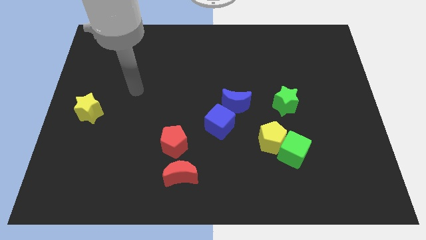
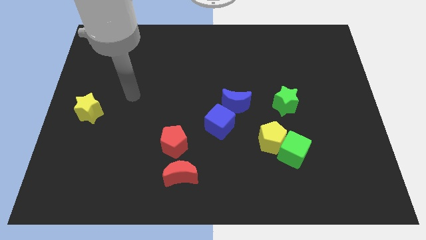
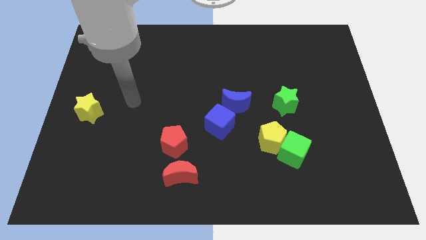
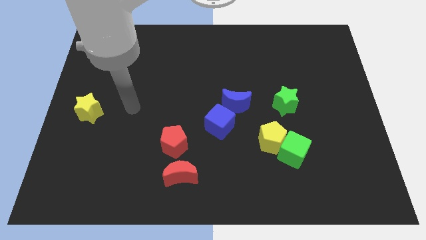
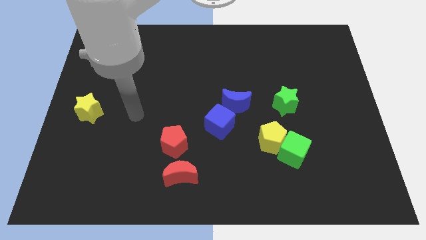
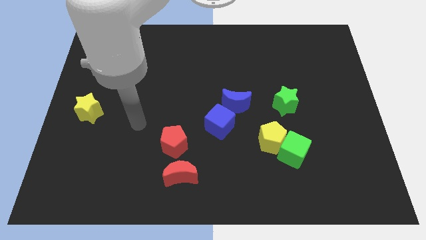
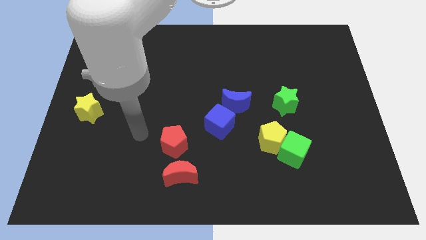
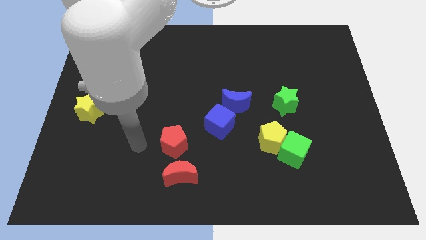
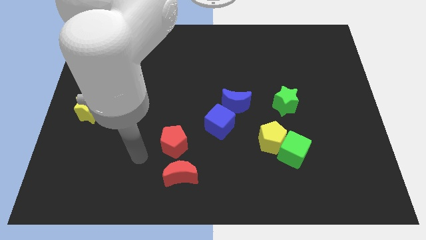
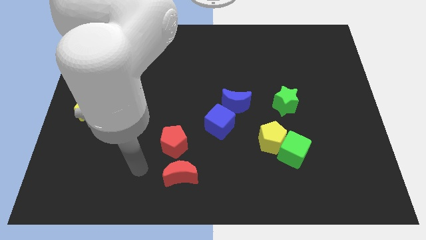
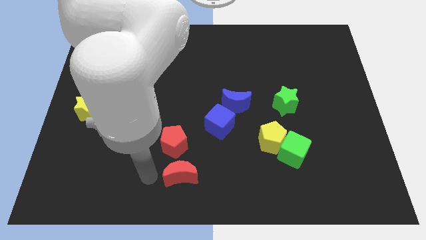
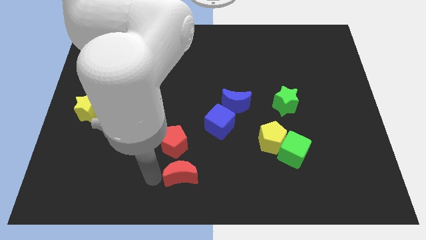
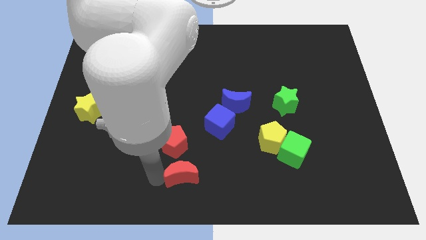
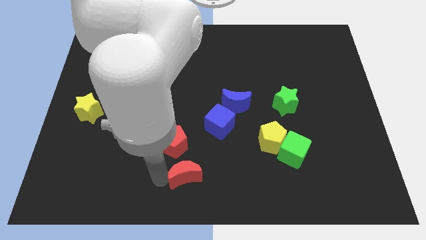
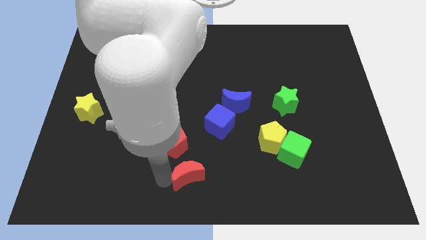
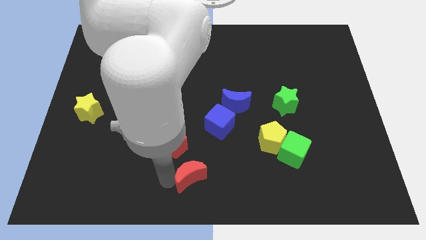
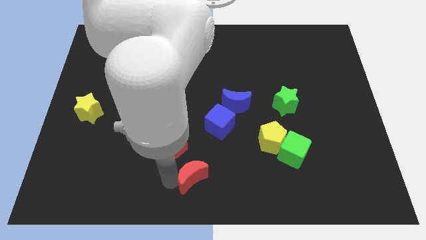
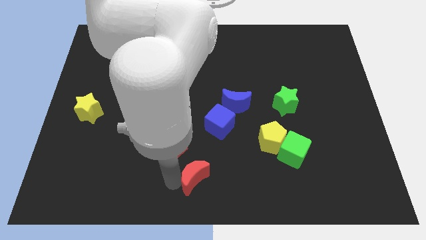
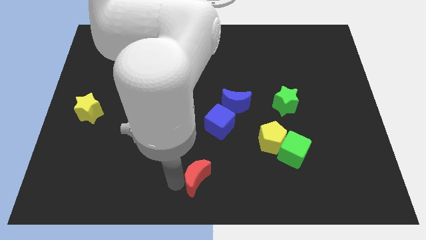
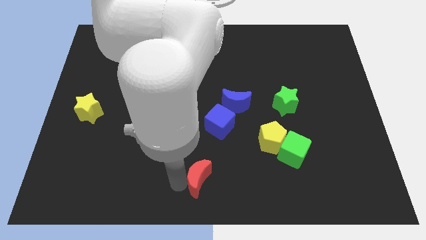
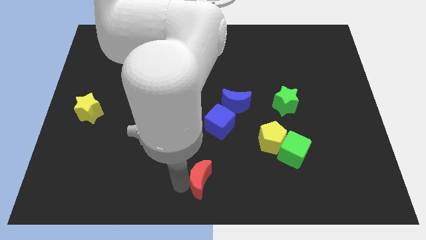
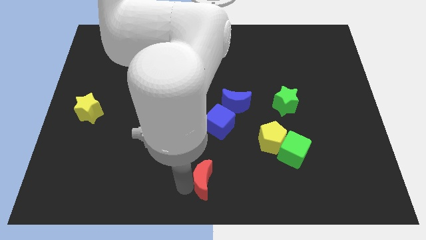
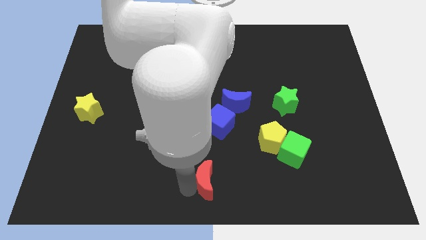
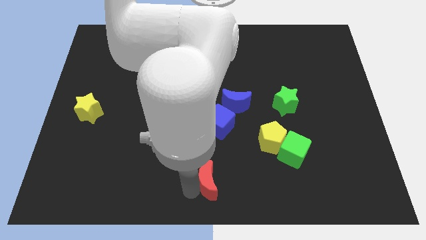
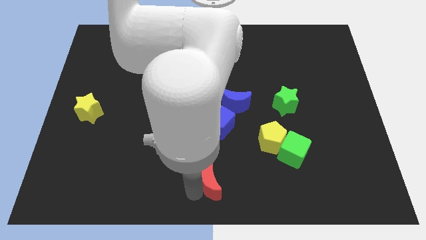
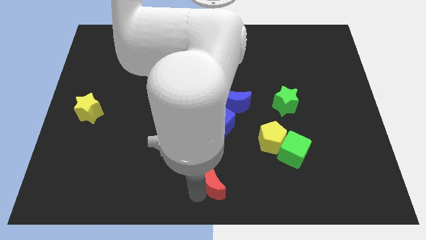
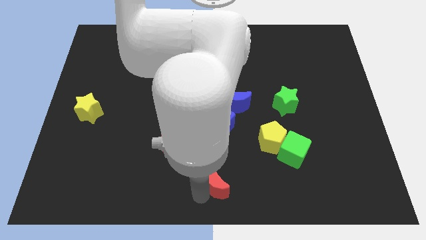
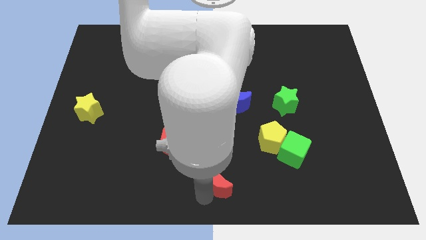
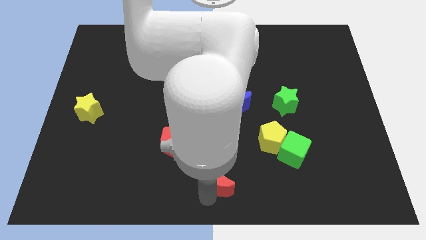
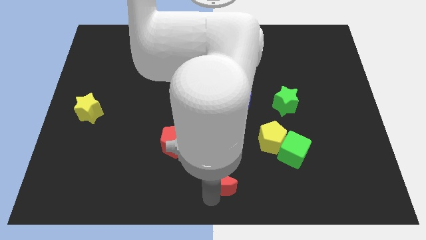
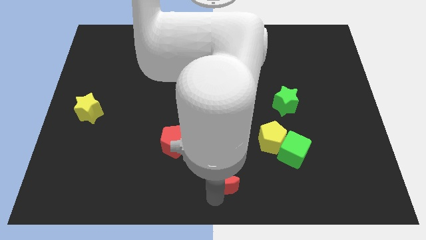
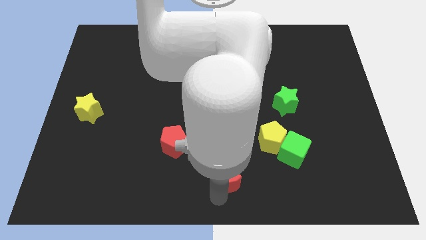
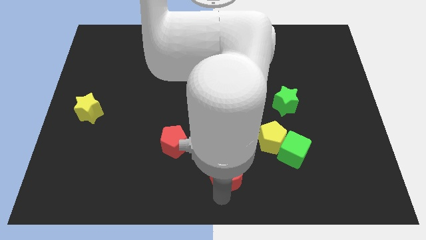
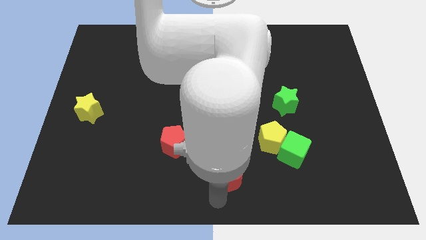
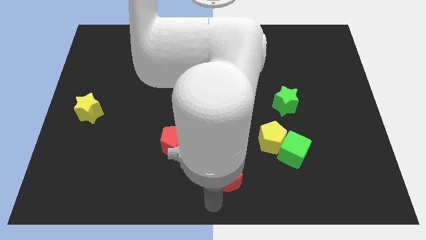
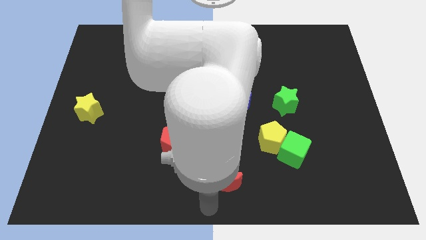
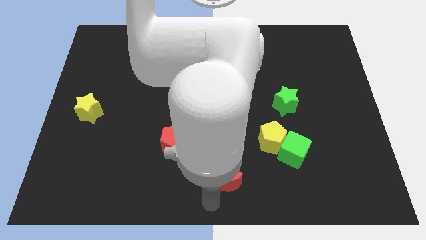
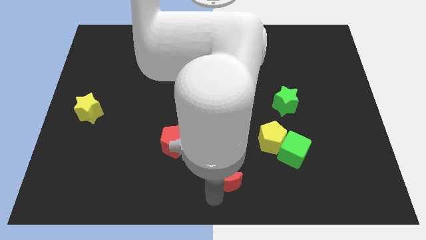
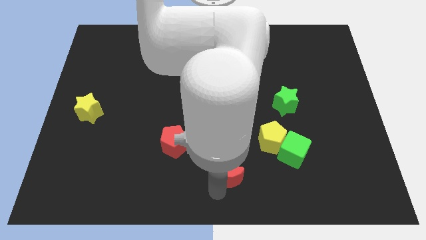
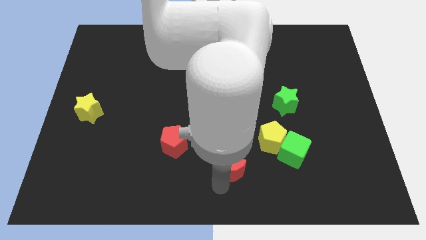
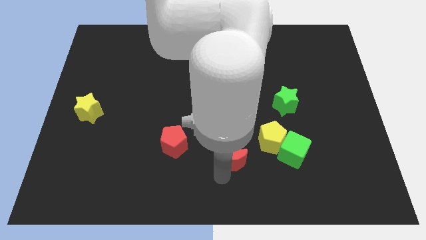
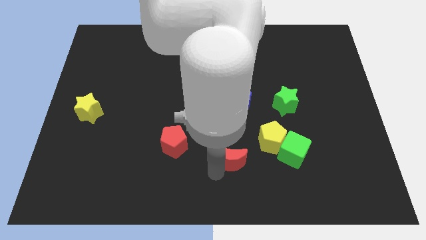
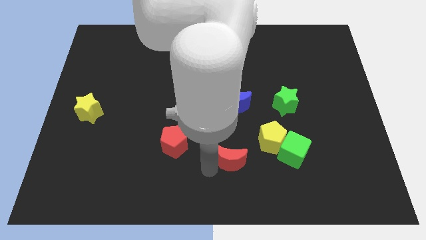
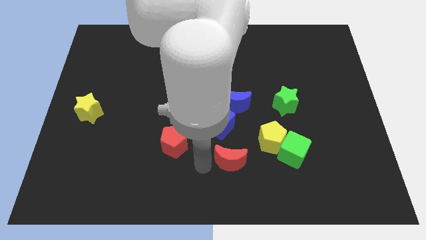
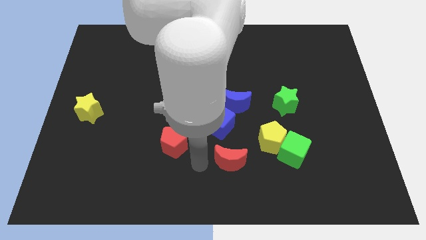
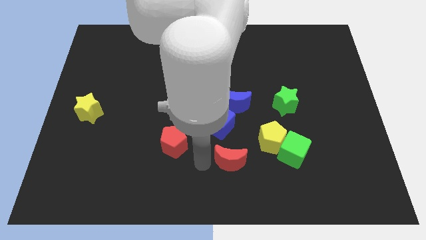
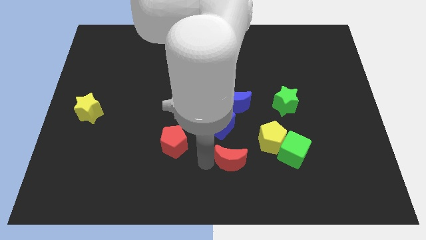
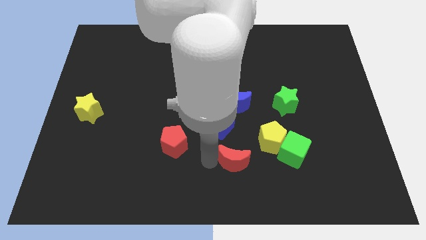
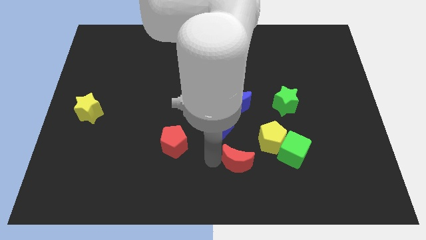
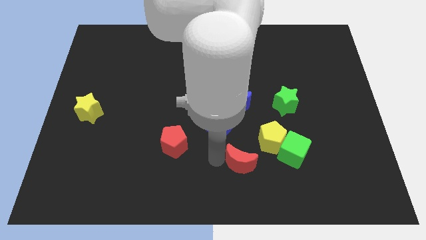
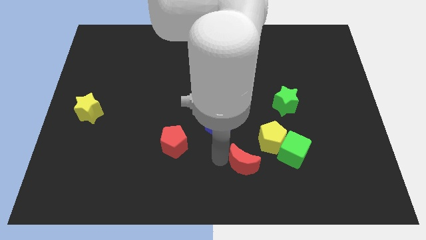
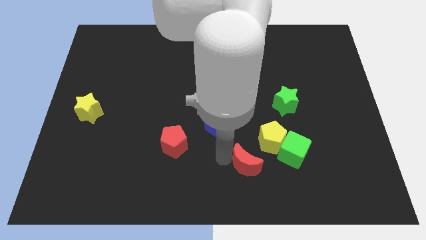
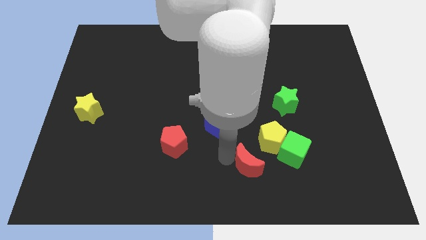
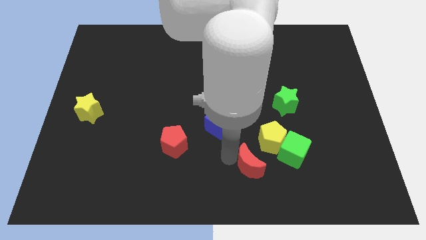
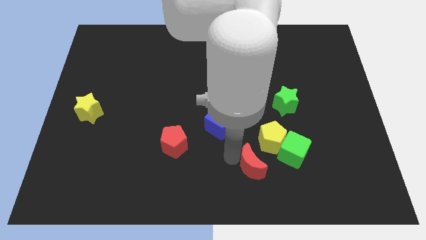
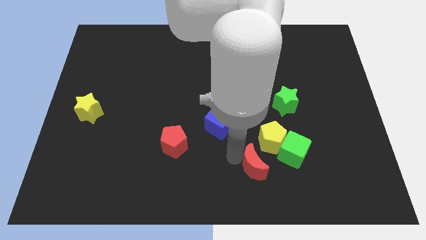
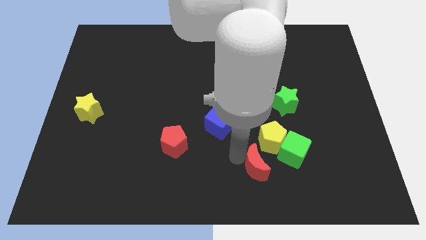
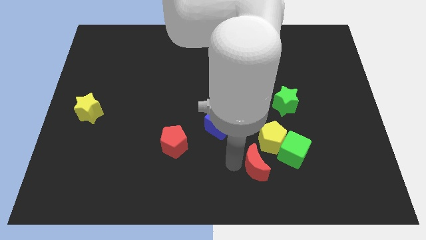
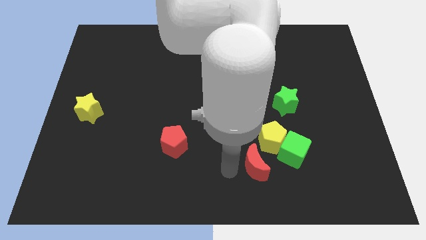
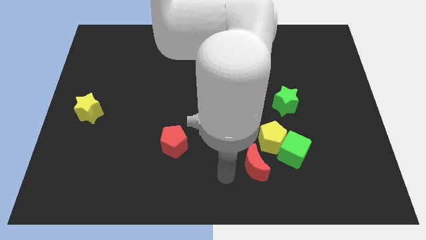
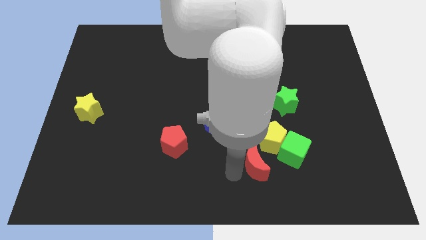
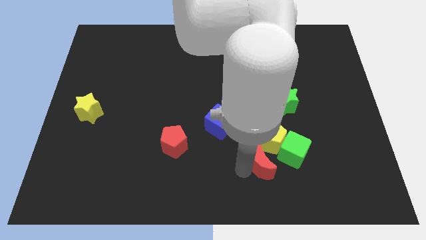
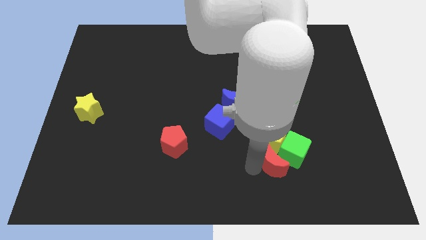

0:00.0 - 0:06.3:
move the red moon to the green cube
